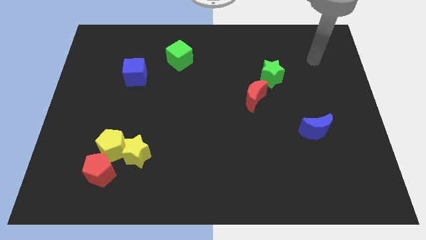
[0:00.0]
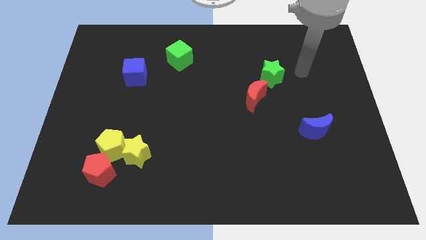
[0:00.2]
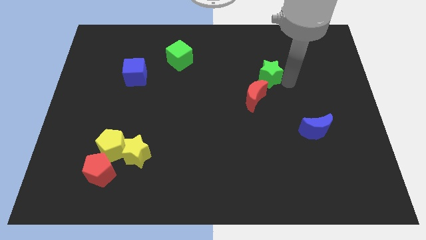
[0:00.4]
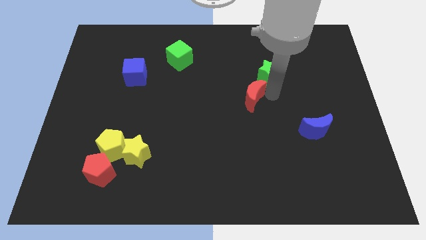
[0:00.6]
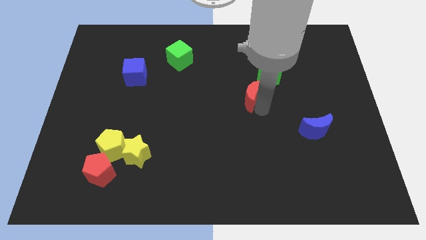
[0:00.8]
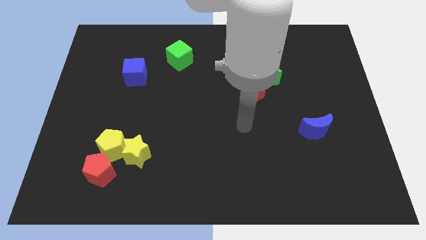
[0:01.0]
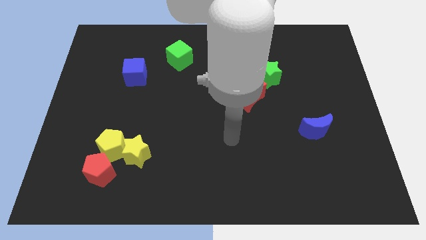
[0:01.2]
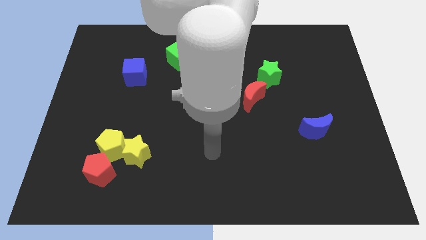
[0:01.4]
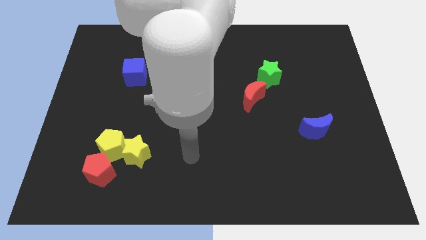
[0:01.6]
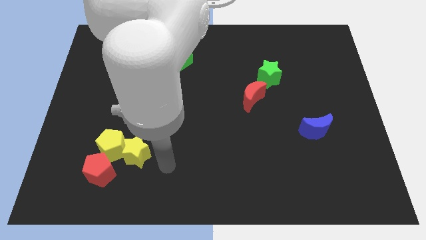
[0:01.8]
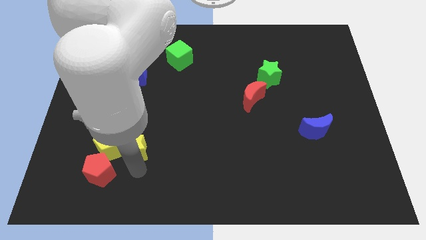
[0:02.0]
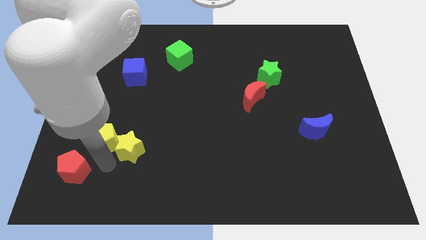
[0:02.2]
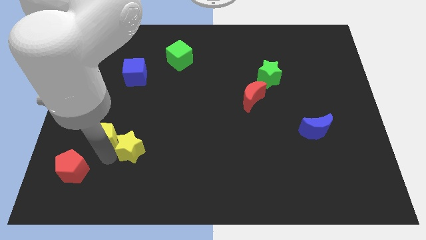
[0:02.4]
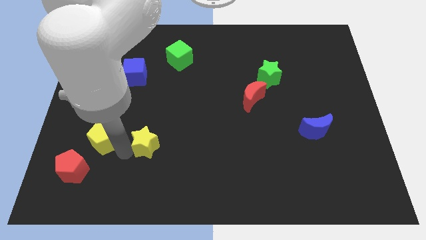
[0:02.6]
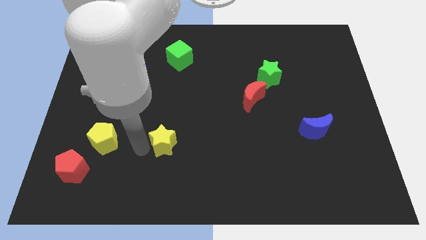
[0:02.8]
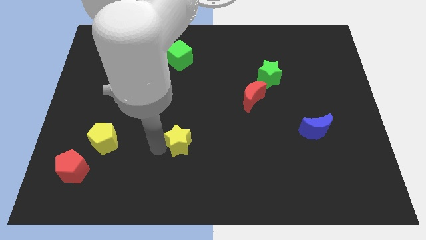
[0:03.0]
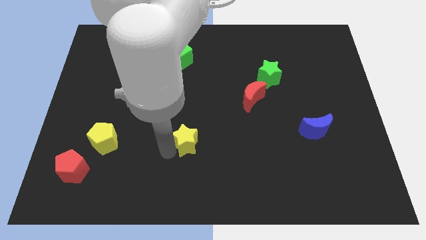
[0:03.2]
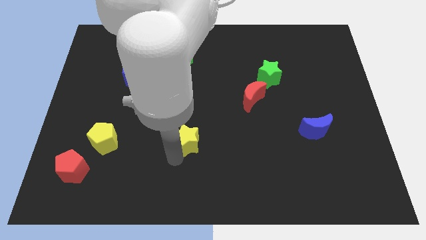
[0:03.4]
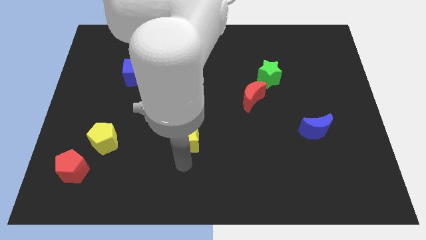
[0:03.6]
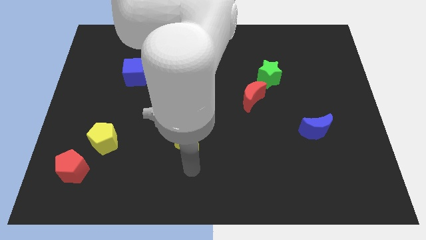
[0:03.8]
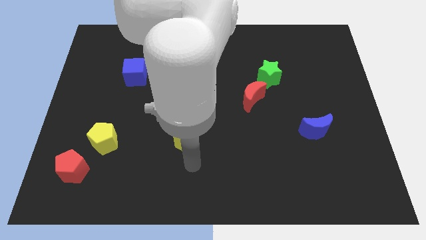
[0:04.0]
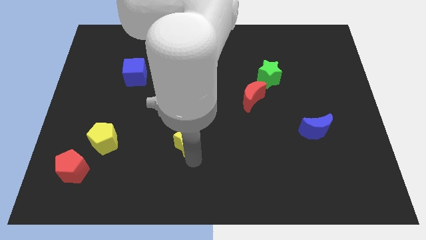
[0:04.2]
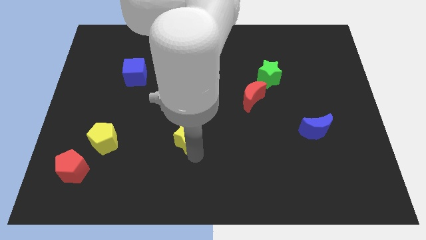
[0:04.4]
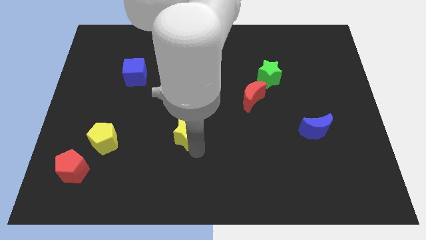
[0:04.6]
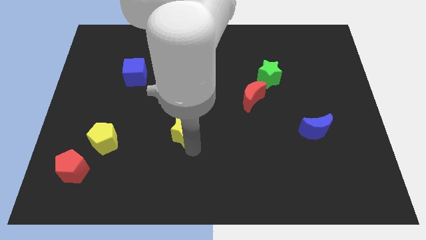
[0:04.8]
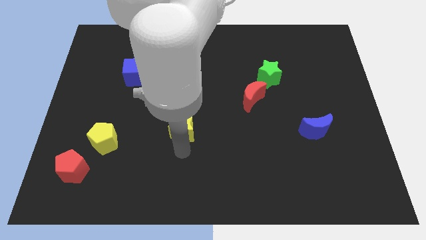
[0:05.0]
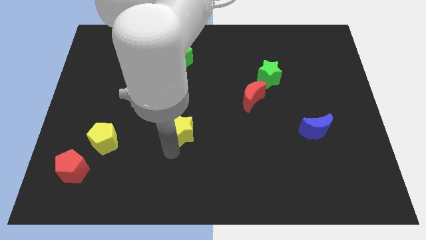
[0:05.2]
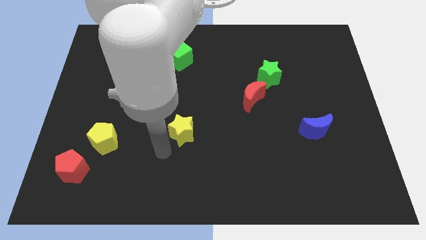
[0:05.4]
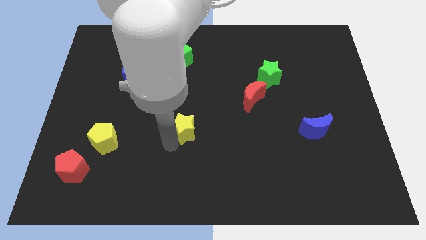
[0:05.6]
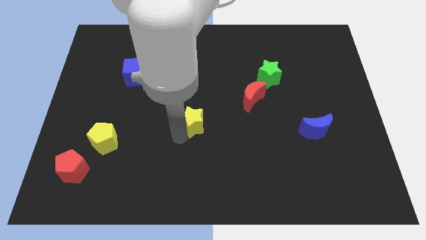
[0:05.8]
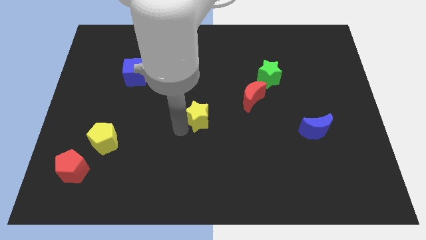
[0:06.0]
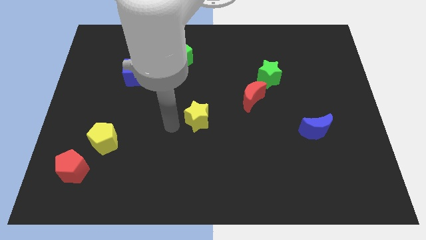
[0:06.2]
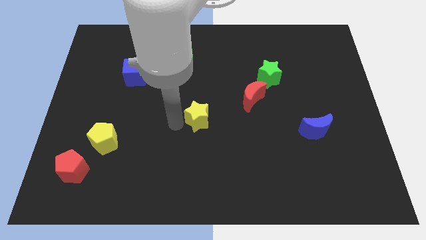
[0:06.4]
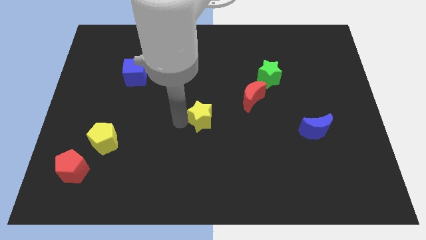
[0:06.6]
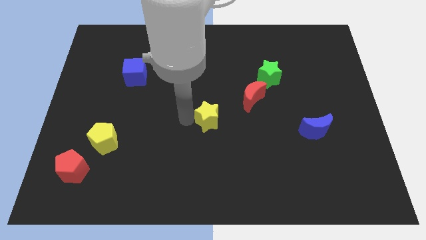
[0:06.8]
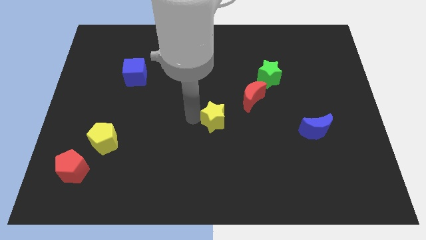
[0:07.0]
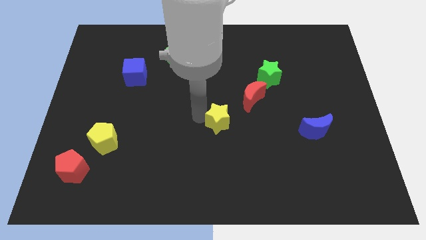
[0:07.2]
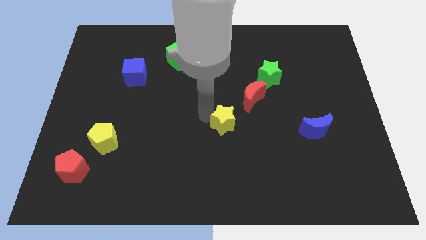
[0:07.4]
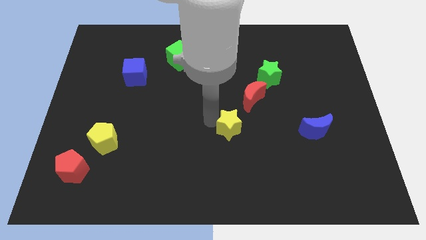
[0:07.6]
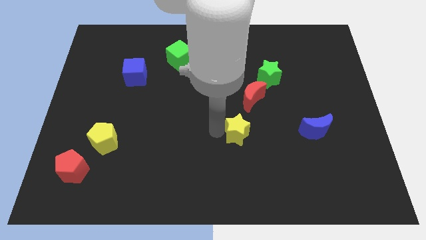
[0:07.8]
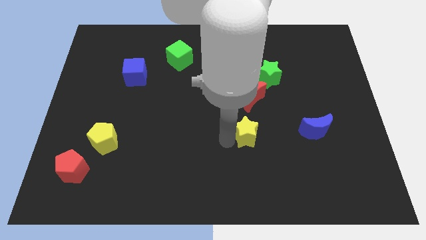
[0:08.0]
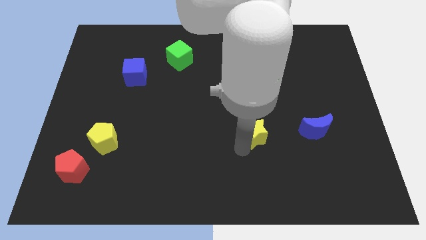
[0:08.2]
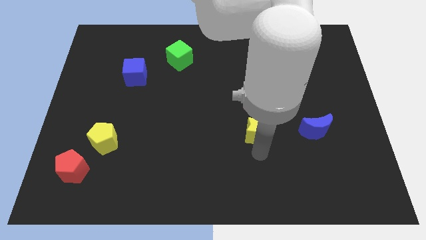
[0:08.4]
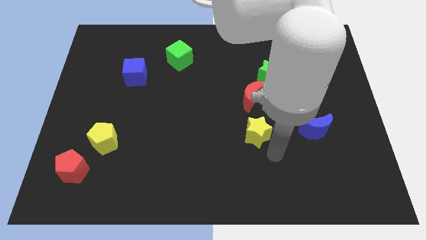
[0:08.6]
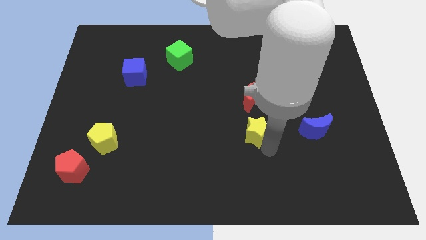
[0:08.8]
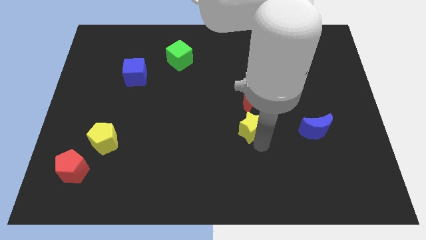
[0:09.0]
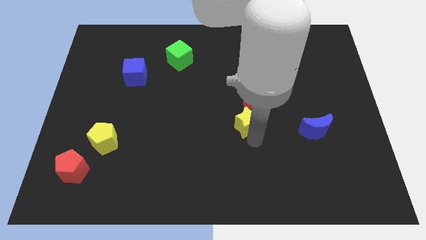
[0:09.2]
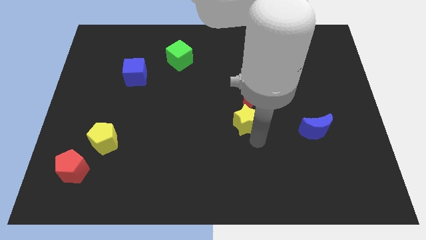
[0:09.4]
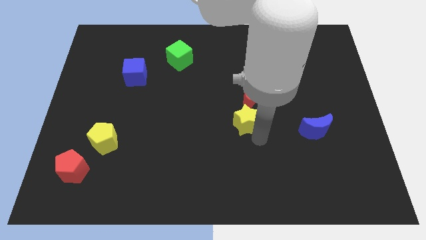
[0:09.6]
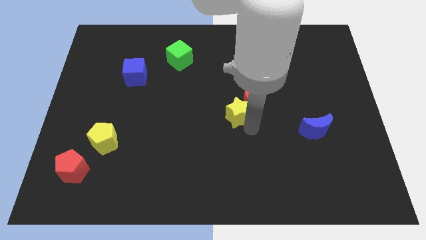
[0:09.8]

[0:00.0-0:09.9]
slide the yellow star to the red moon

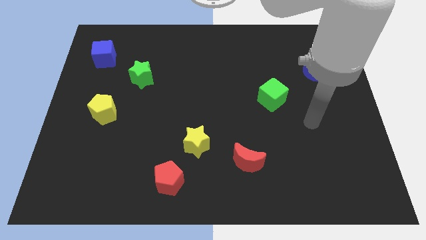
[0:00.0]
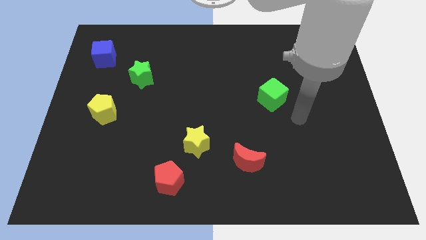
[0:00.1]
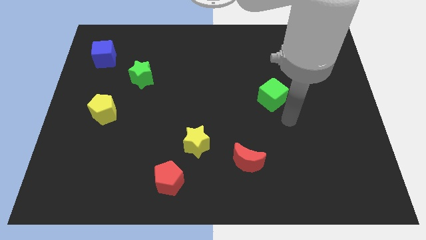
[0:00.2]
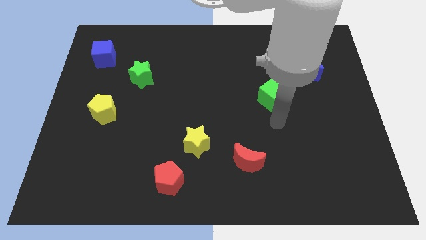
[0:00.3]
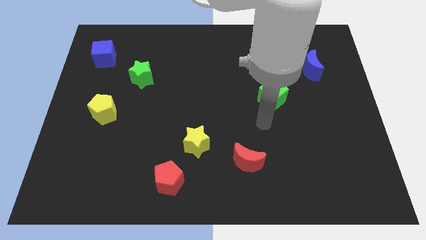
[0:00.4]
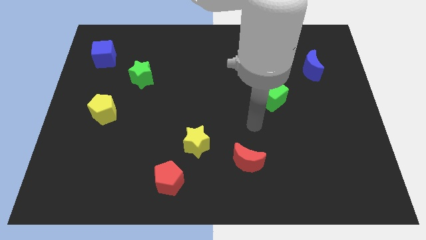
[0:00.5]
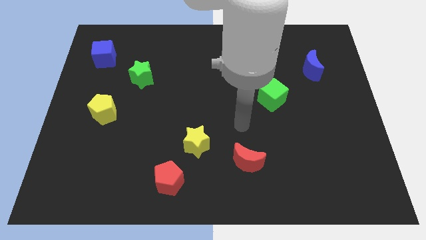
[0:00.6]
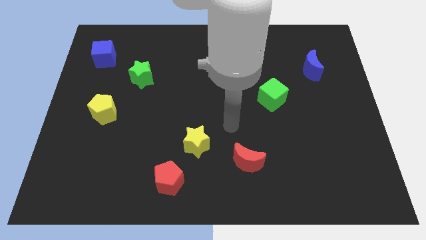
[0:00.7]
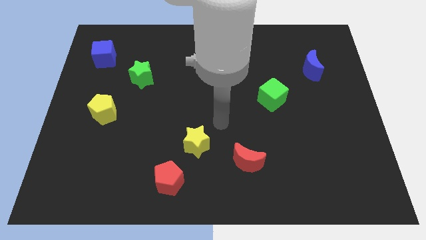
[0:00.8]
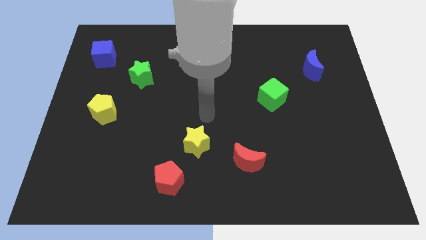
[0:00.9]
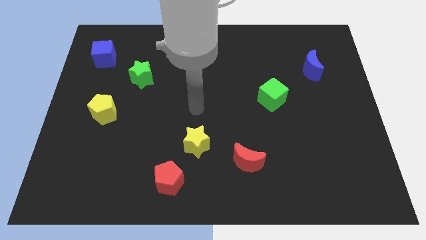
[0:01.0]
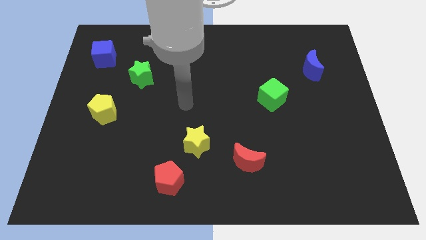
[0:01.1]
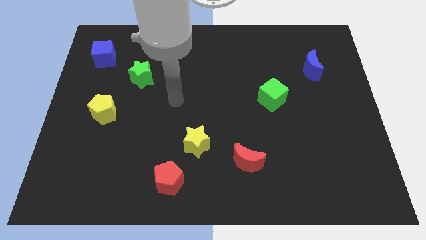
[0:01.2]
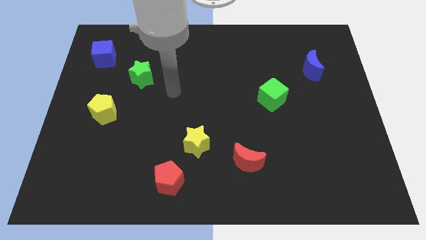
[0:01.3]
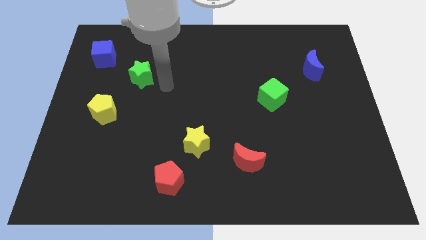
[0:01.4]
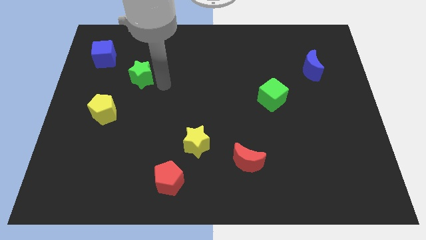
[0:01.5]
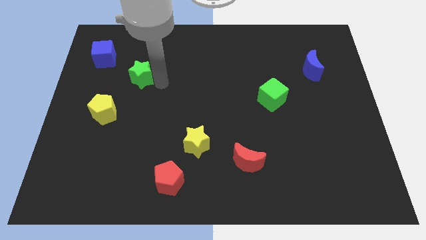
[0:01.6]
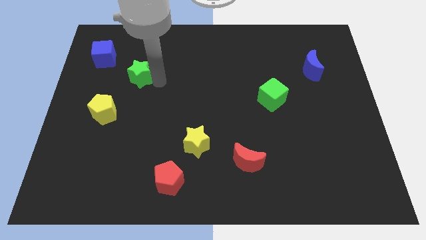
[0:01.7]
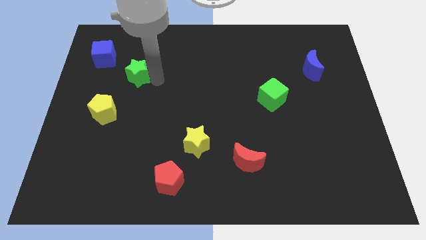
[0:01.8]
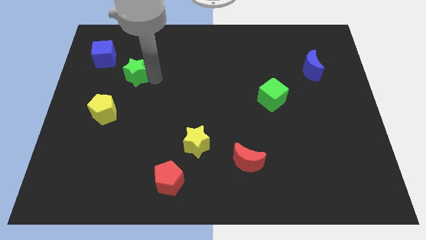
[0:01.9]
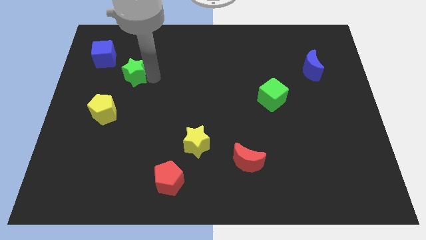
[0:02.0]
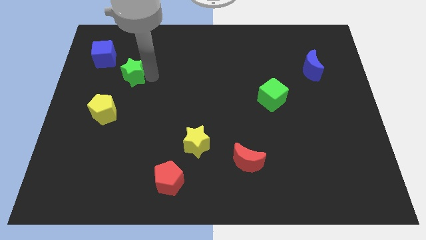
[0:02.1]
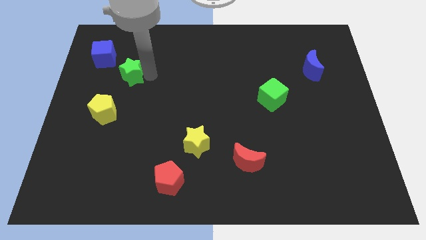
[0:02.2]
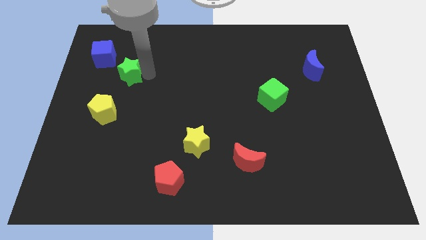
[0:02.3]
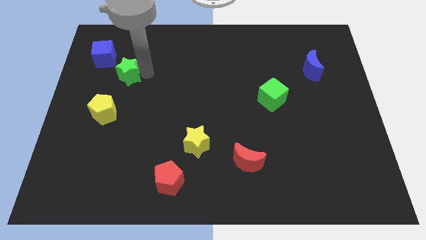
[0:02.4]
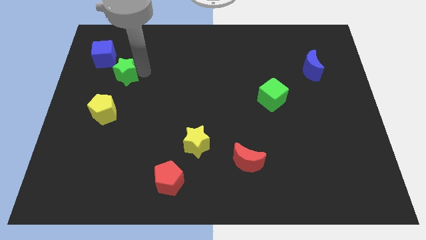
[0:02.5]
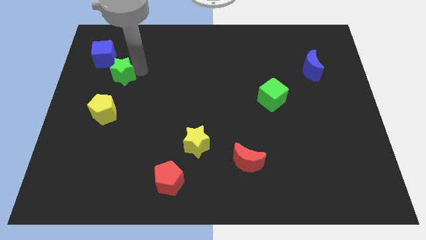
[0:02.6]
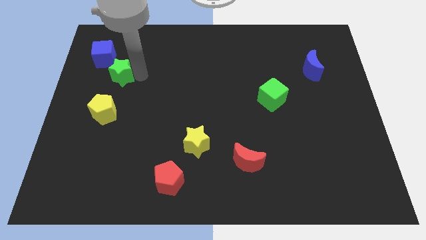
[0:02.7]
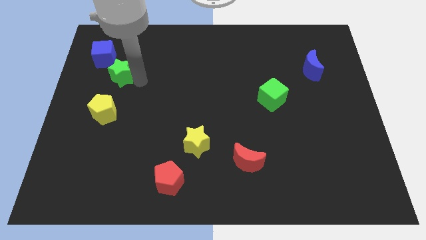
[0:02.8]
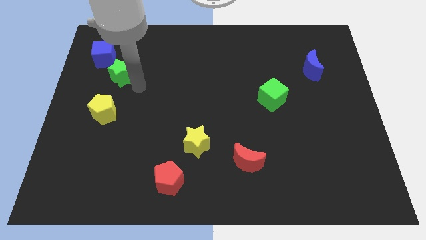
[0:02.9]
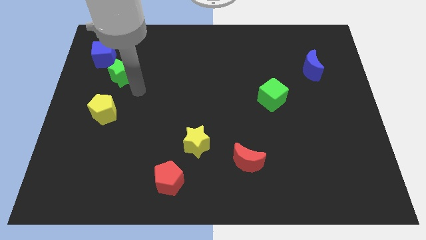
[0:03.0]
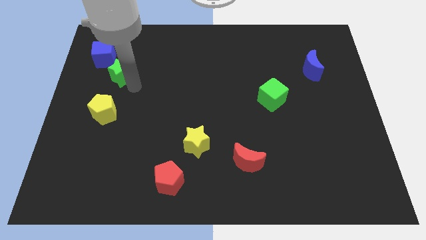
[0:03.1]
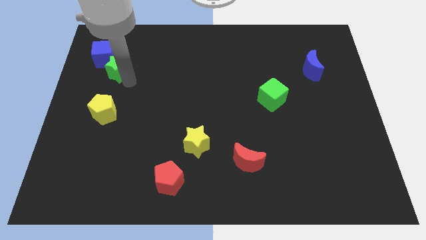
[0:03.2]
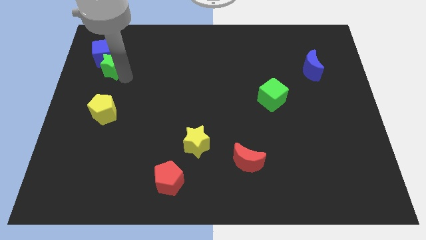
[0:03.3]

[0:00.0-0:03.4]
slide the green star close to the blue cube

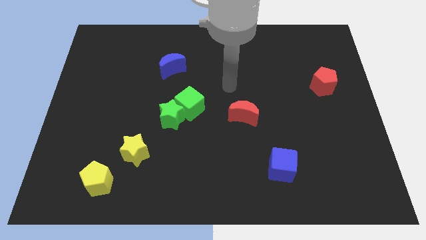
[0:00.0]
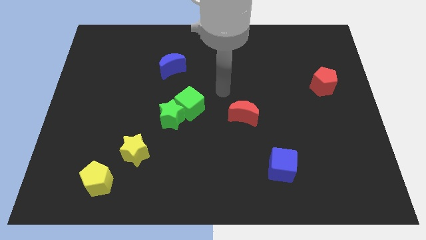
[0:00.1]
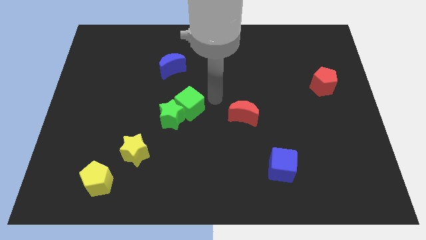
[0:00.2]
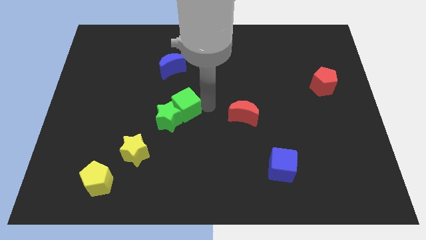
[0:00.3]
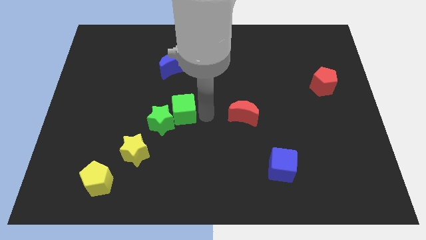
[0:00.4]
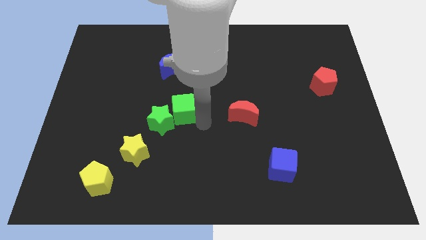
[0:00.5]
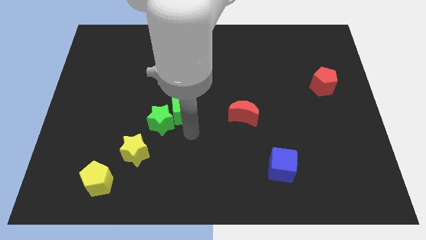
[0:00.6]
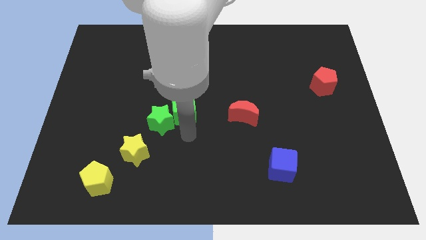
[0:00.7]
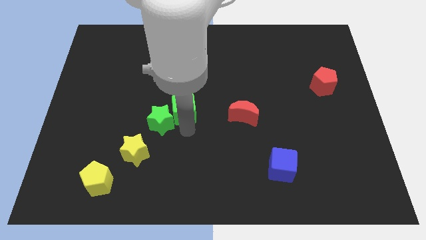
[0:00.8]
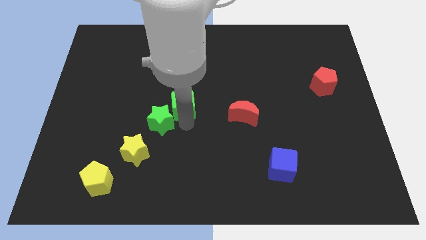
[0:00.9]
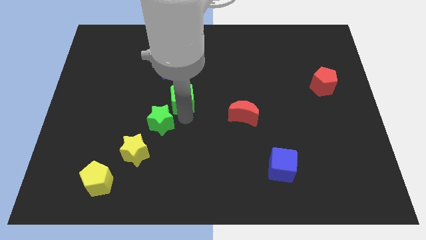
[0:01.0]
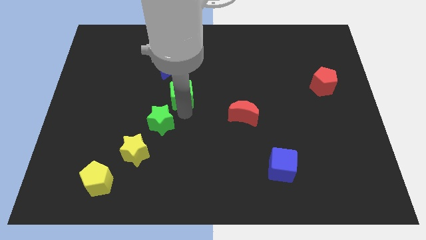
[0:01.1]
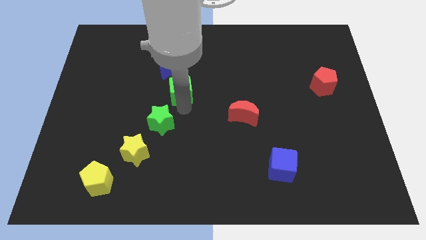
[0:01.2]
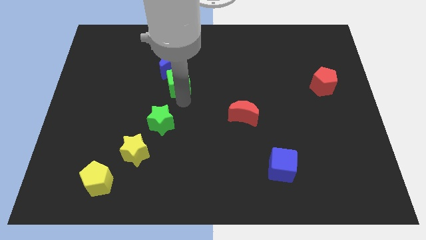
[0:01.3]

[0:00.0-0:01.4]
put the green cube next to the blue moon
